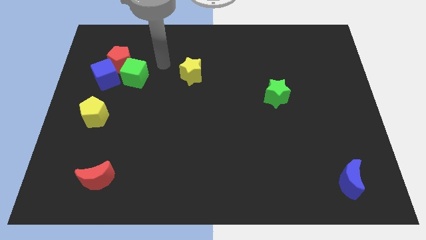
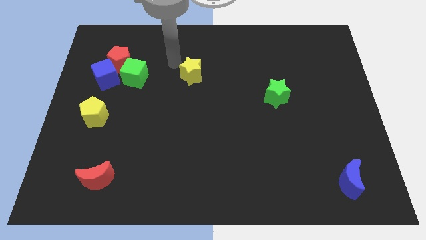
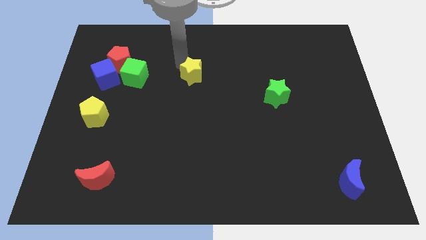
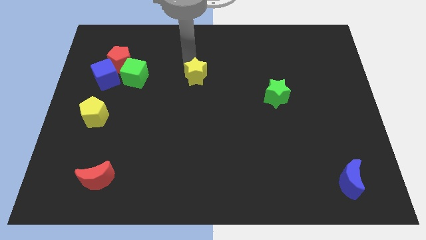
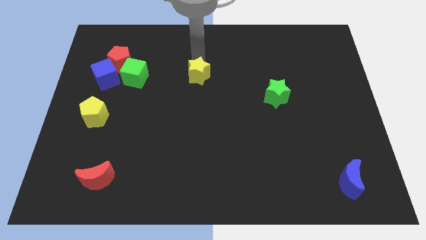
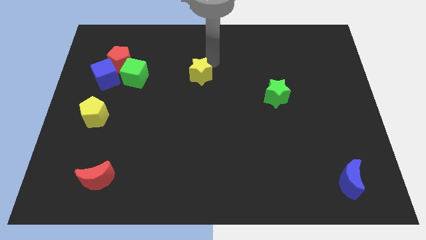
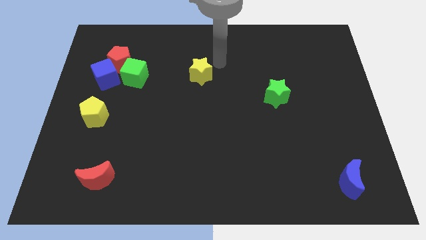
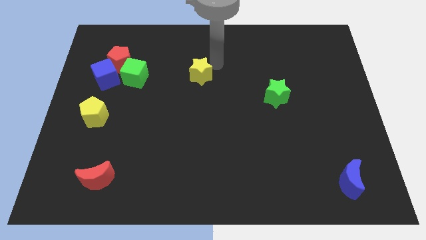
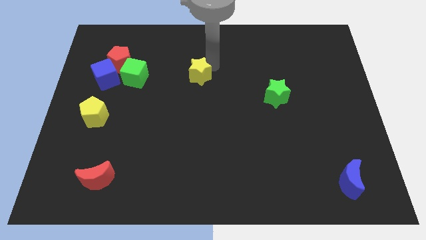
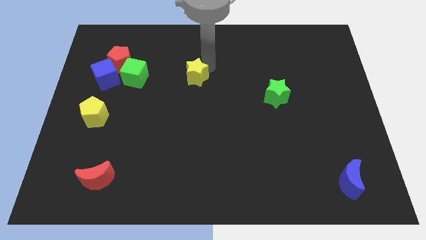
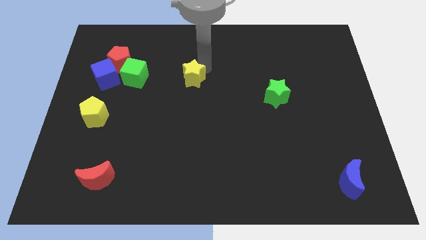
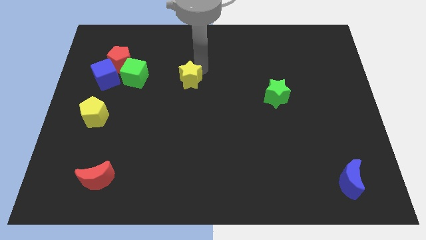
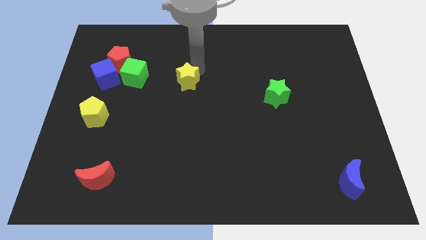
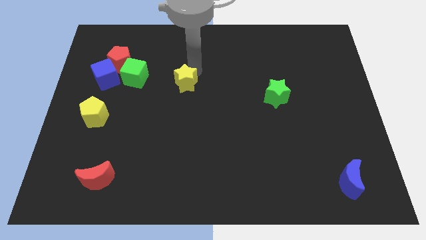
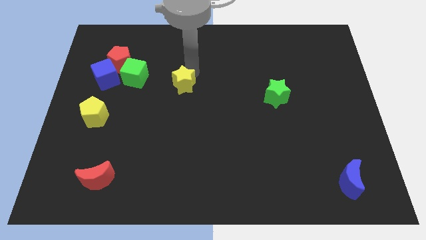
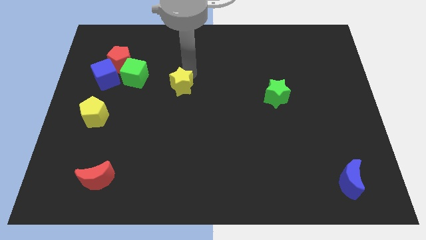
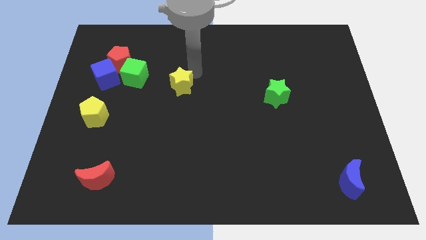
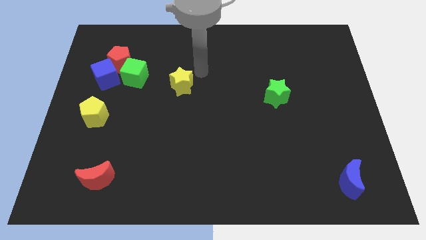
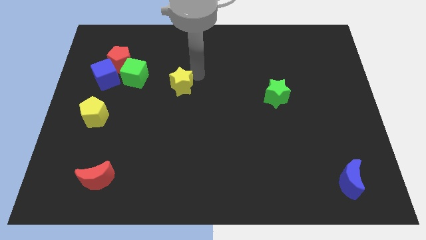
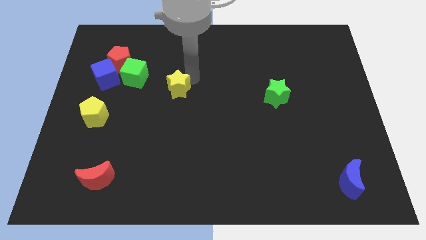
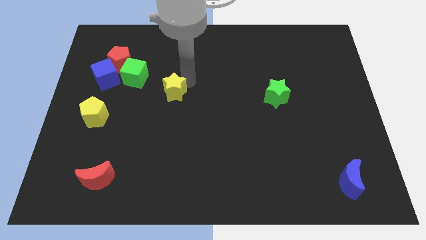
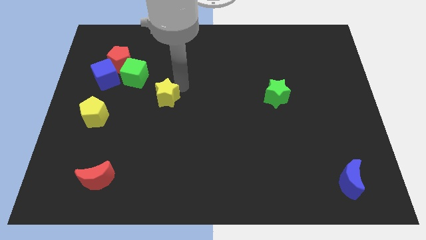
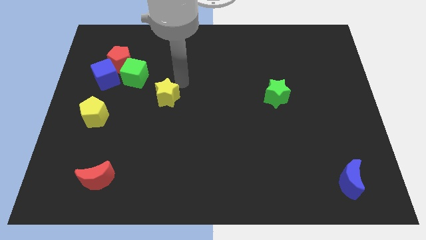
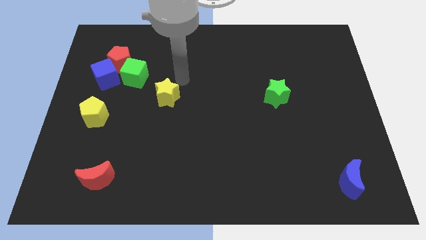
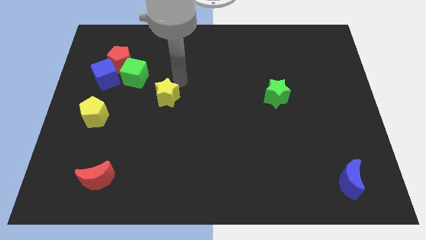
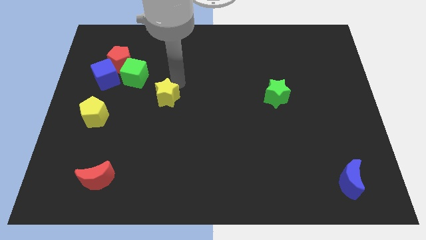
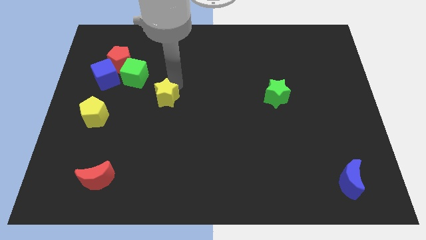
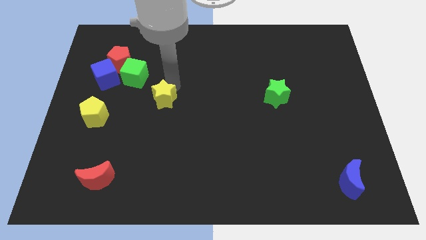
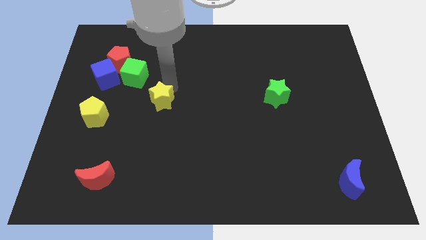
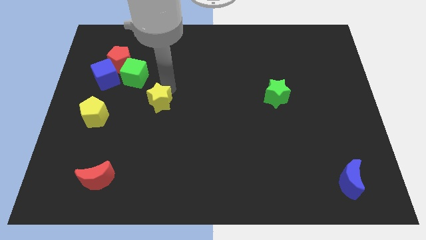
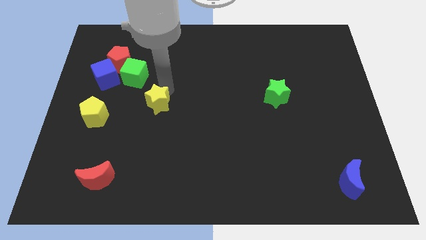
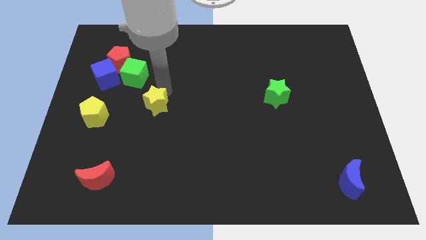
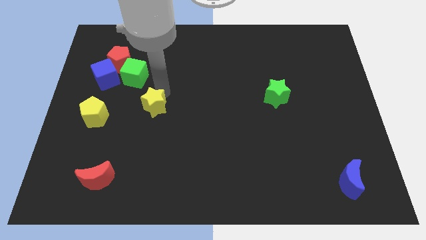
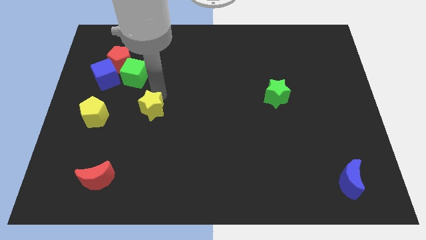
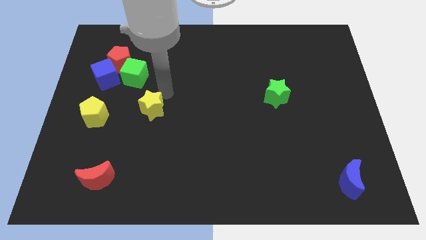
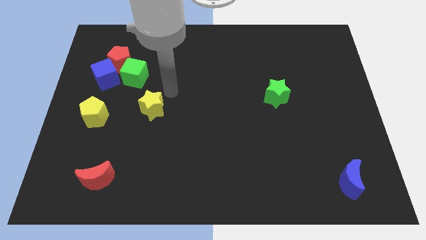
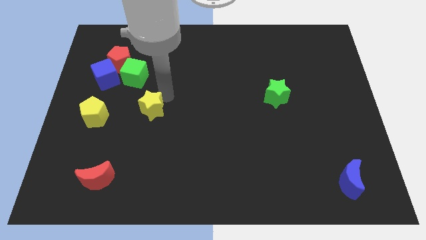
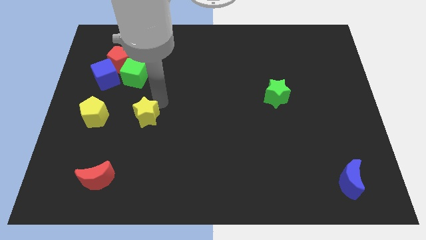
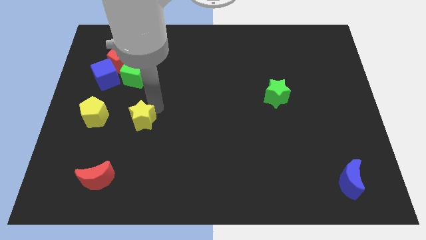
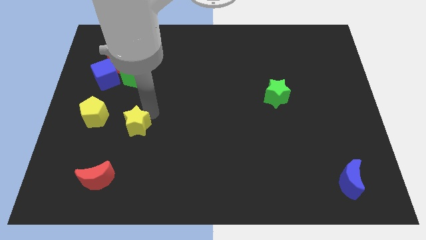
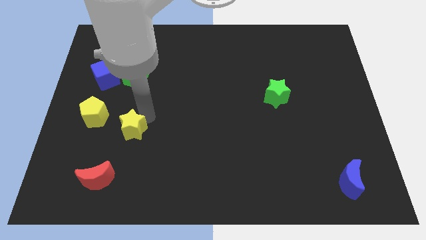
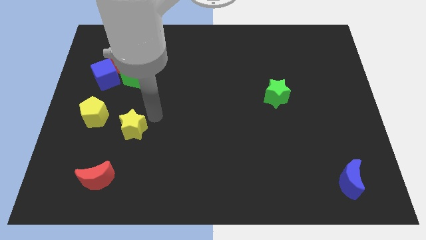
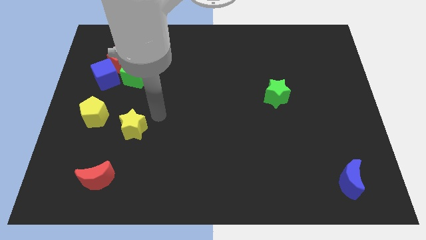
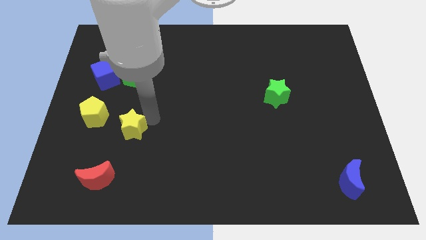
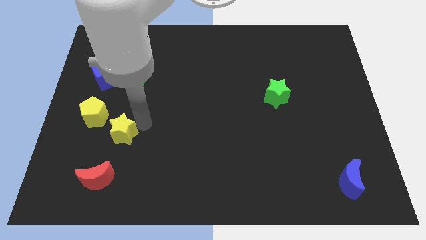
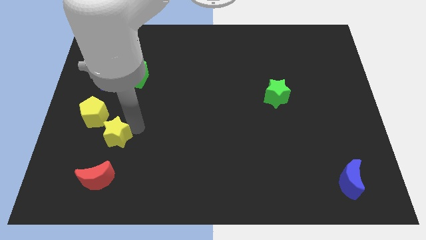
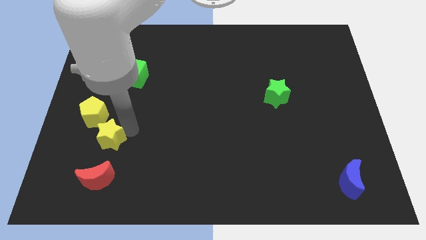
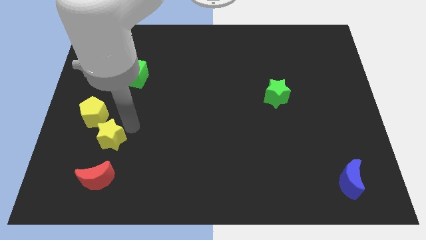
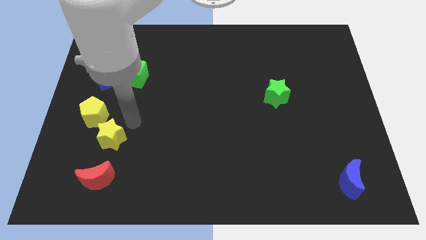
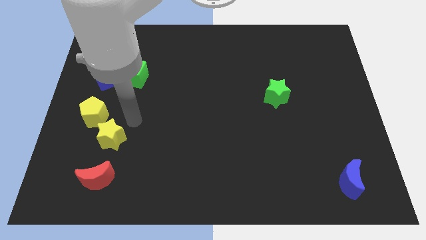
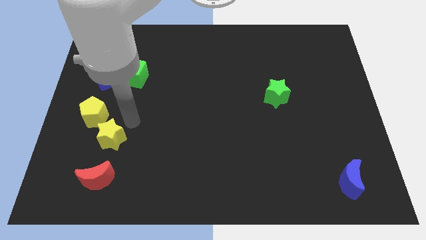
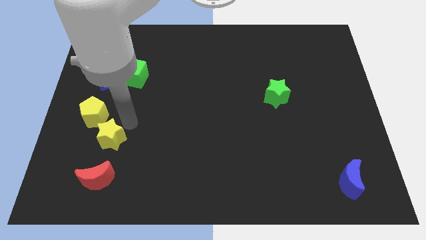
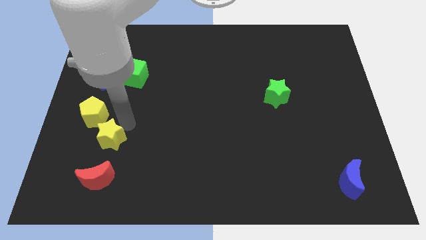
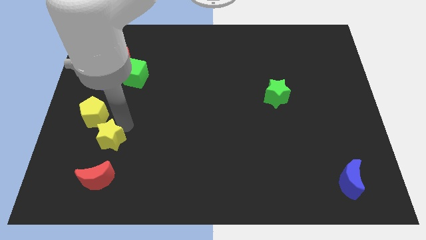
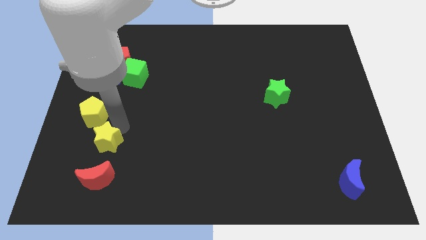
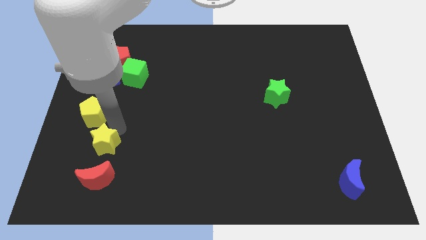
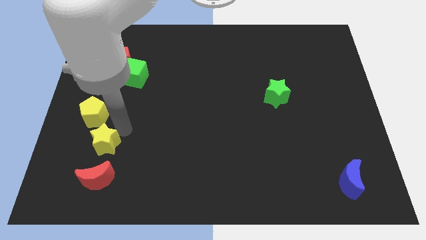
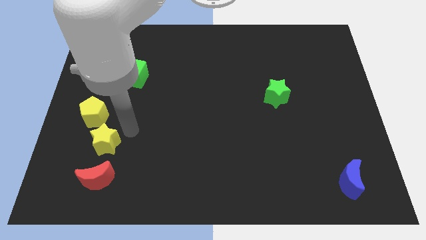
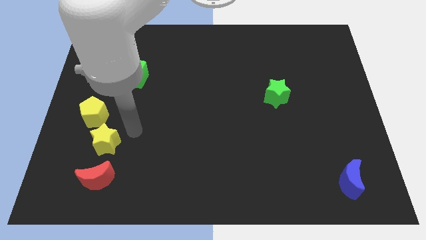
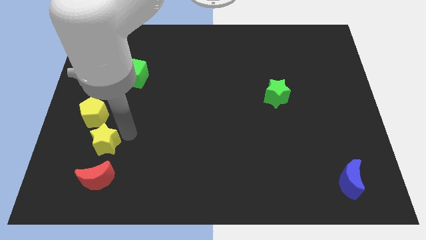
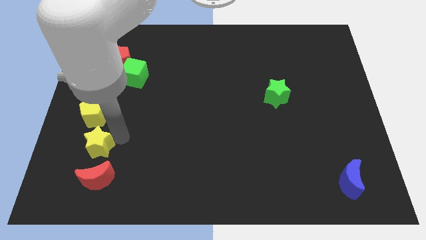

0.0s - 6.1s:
put the yellow star to the top left of the red moon

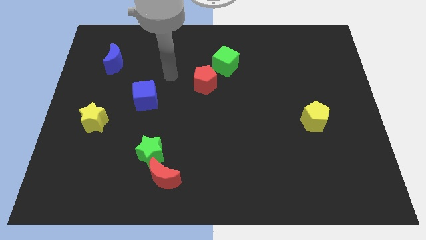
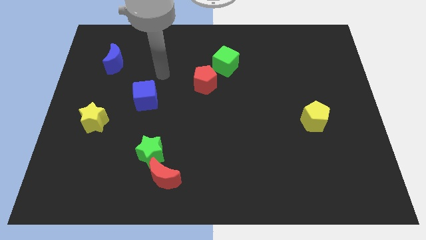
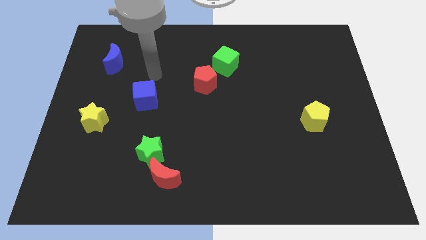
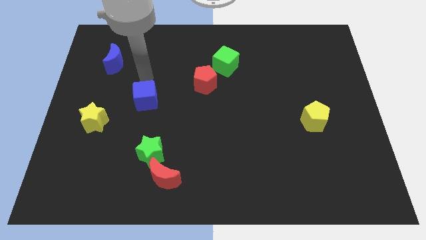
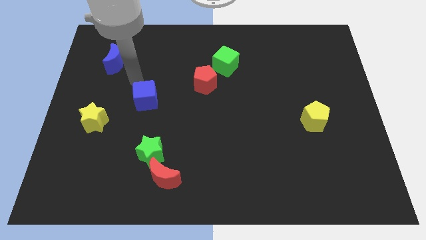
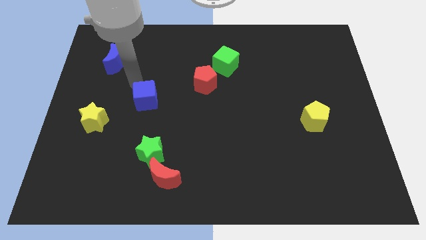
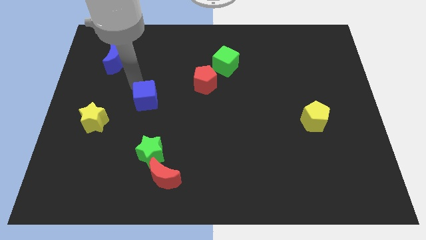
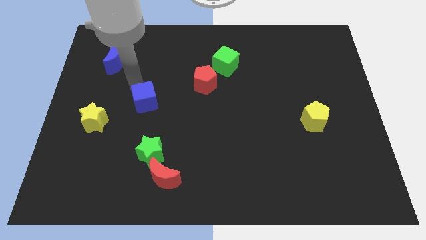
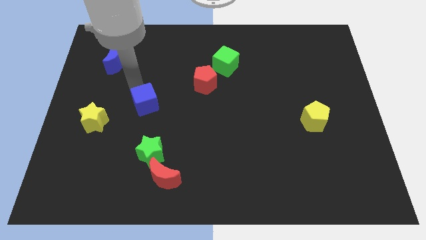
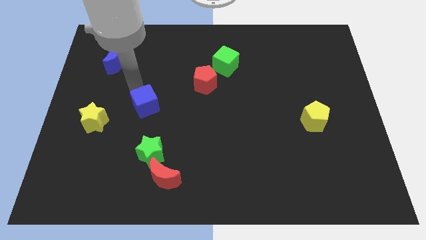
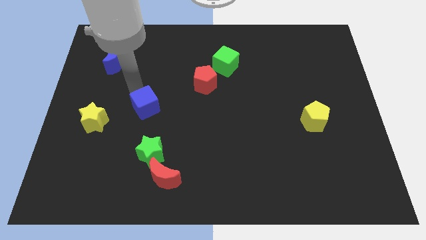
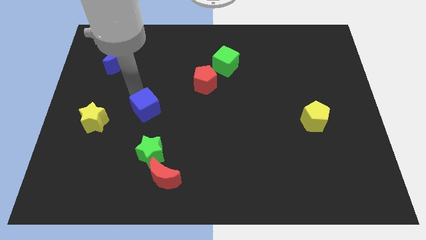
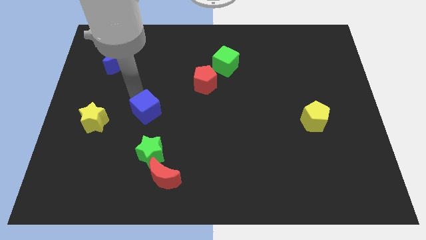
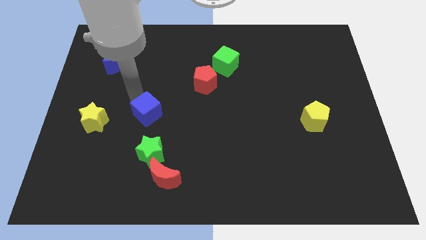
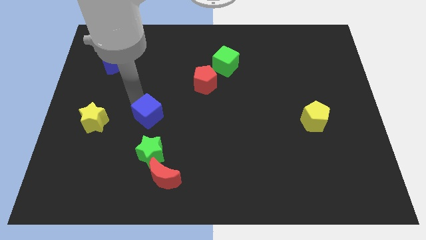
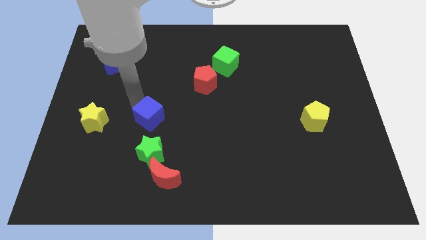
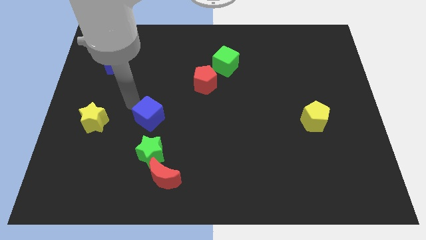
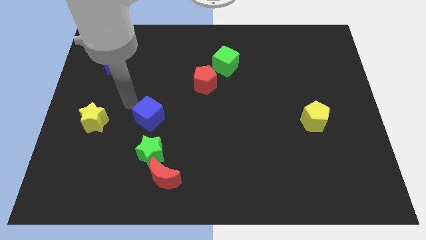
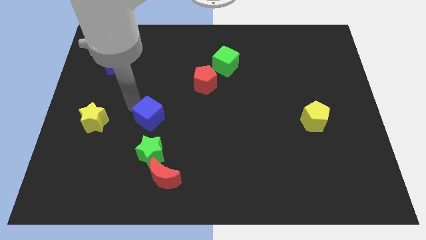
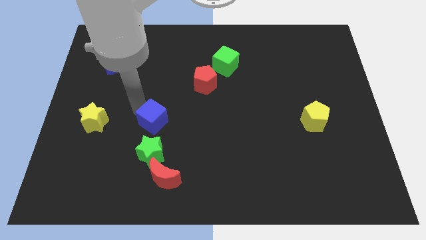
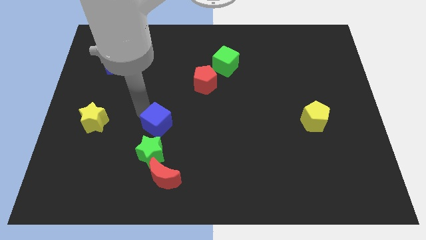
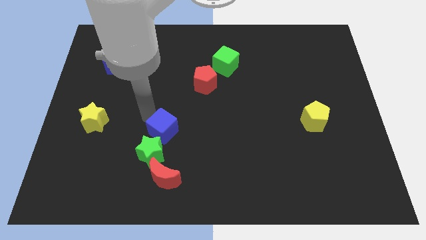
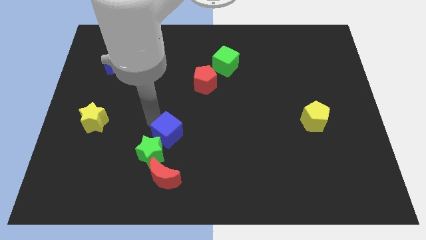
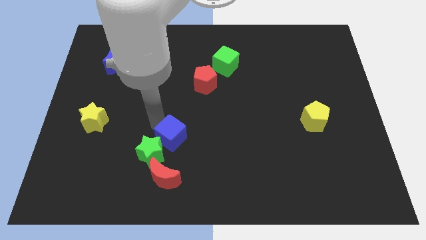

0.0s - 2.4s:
slide the blue cube right of the green star
